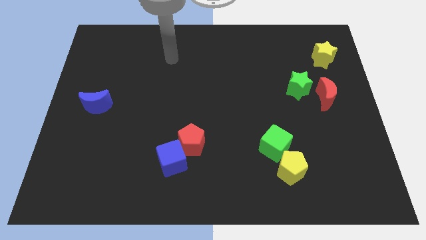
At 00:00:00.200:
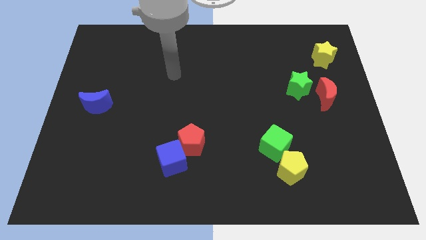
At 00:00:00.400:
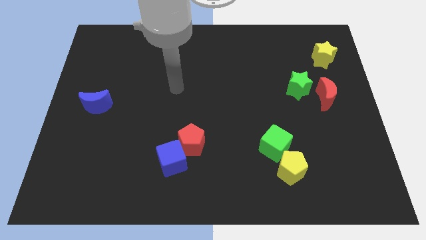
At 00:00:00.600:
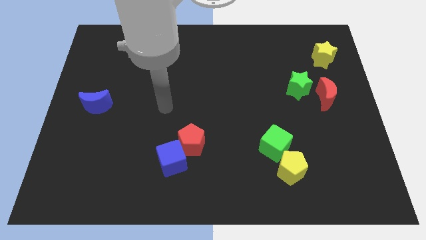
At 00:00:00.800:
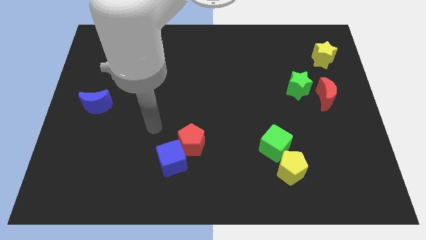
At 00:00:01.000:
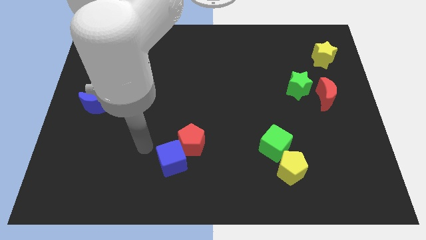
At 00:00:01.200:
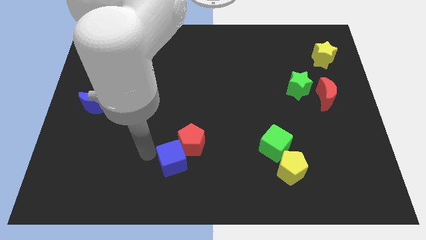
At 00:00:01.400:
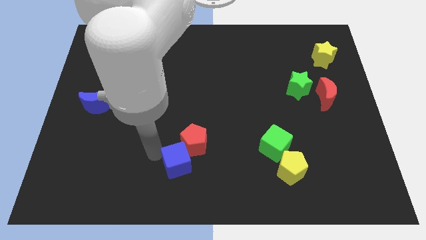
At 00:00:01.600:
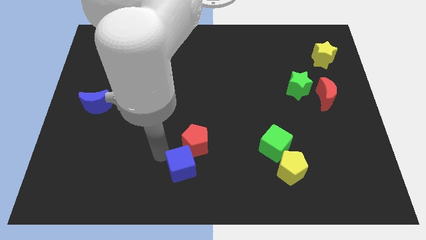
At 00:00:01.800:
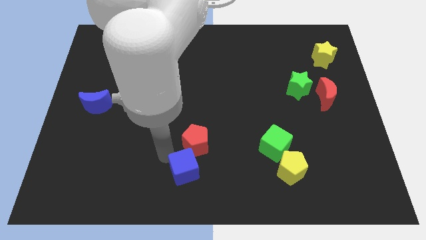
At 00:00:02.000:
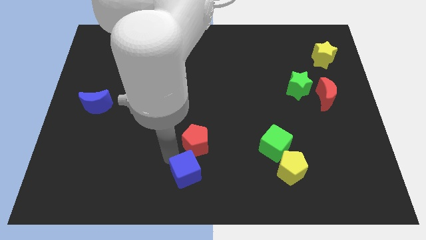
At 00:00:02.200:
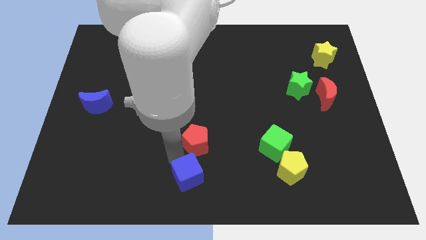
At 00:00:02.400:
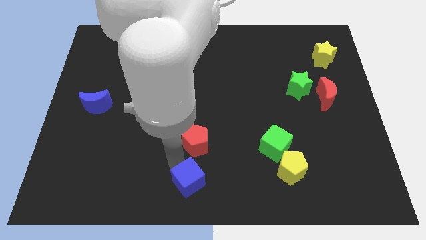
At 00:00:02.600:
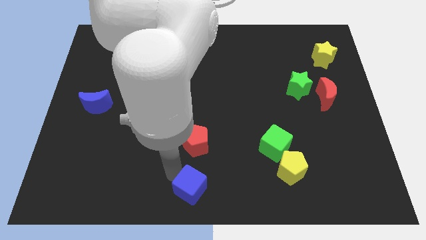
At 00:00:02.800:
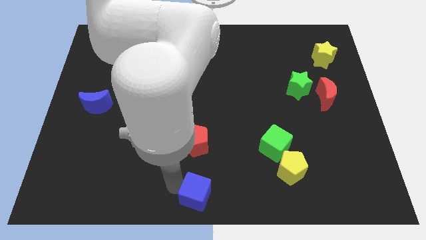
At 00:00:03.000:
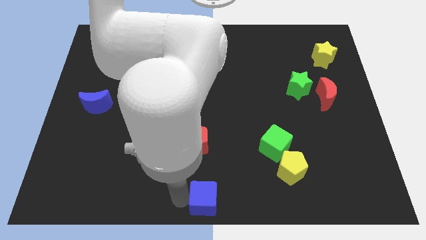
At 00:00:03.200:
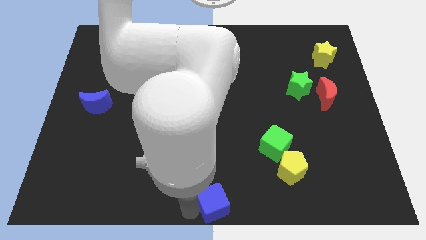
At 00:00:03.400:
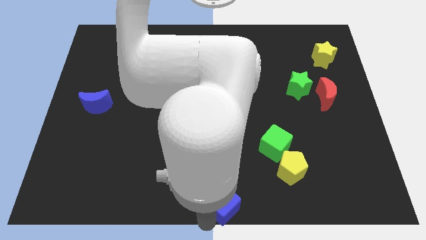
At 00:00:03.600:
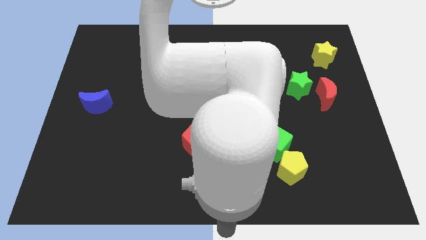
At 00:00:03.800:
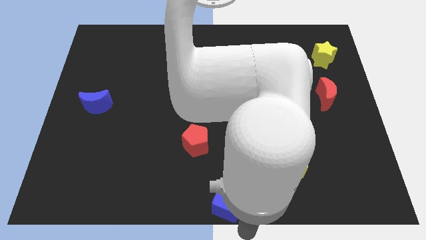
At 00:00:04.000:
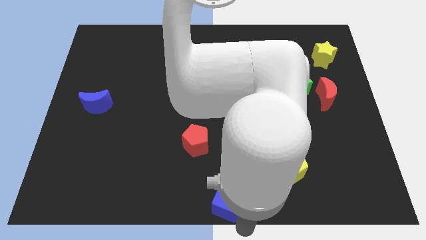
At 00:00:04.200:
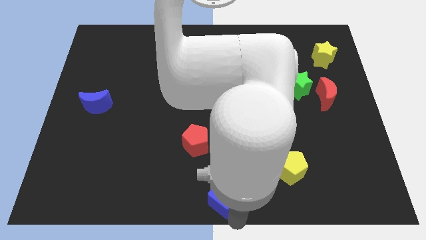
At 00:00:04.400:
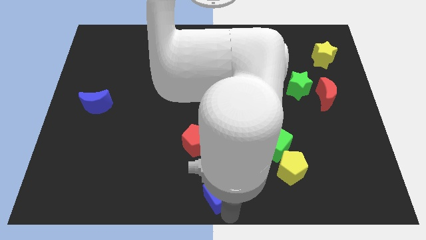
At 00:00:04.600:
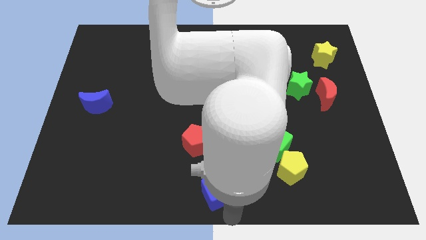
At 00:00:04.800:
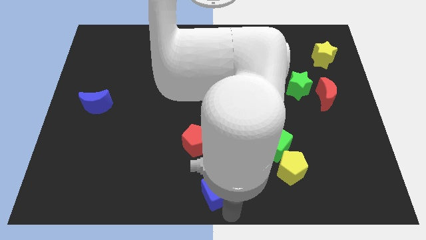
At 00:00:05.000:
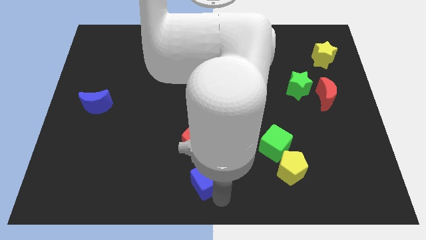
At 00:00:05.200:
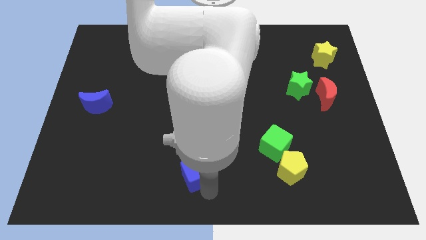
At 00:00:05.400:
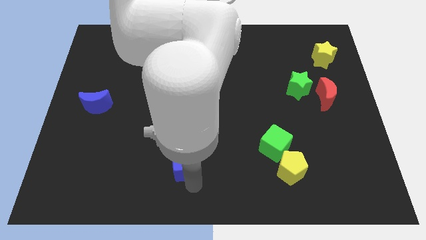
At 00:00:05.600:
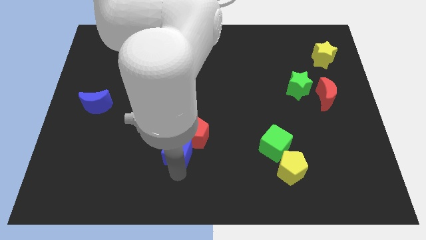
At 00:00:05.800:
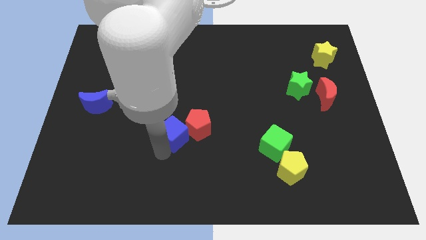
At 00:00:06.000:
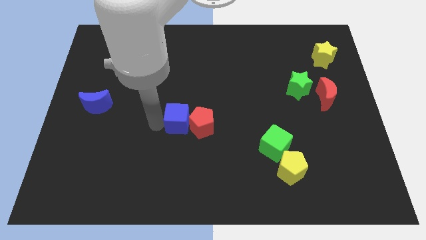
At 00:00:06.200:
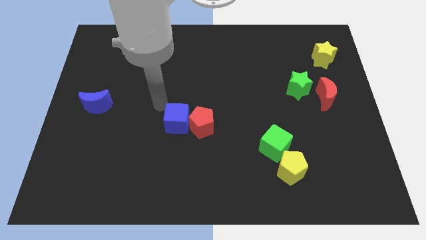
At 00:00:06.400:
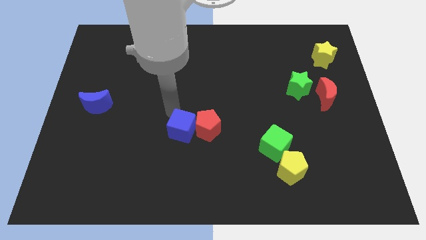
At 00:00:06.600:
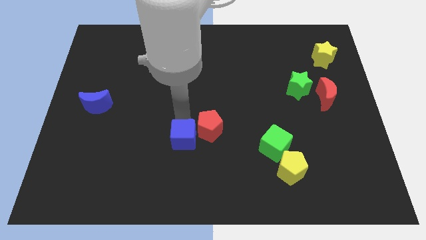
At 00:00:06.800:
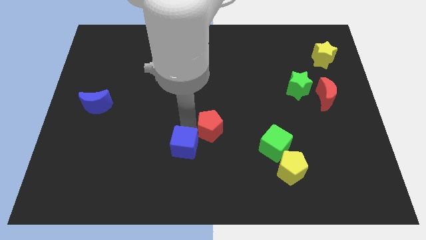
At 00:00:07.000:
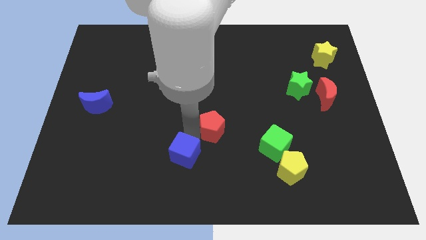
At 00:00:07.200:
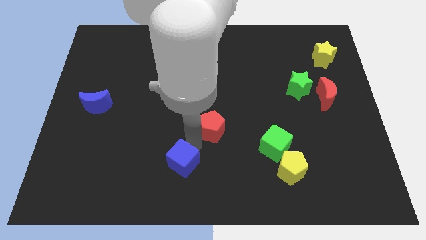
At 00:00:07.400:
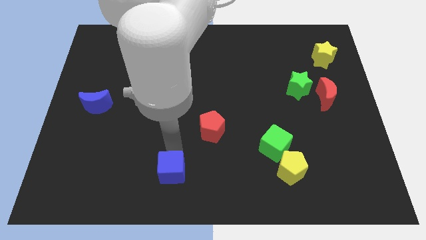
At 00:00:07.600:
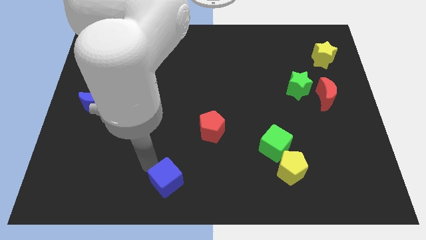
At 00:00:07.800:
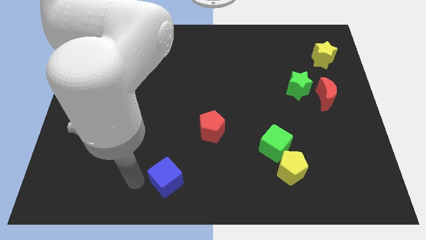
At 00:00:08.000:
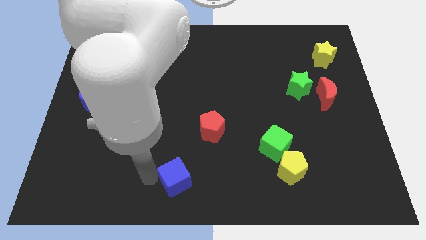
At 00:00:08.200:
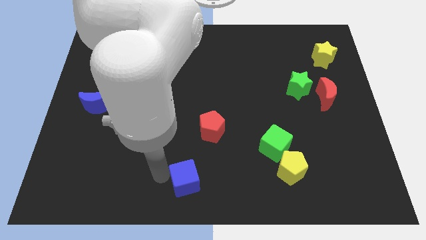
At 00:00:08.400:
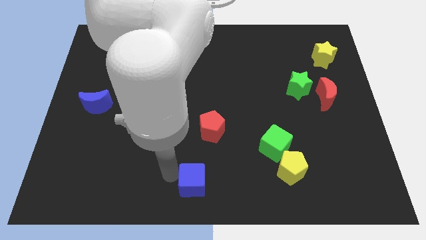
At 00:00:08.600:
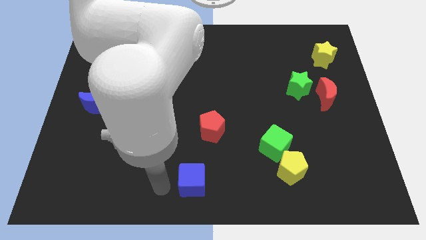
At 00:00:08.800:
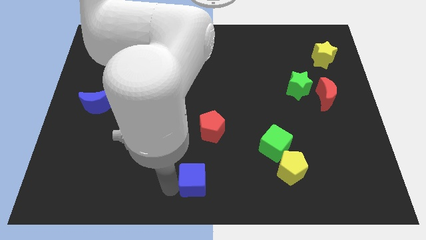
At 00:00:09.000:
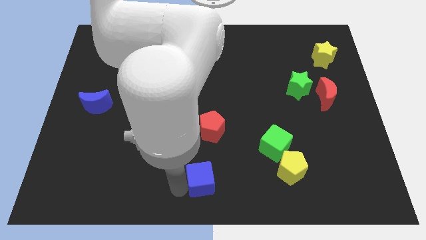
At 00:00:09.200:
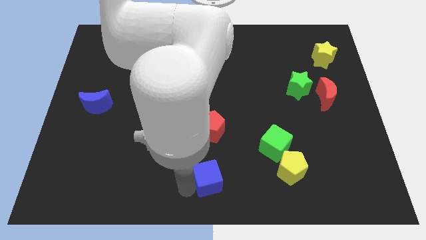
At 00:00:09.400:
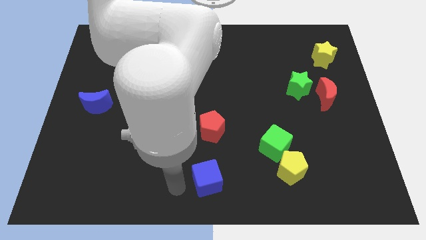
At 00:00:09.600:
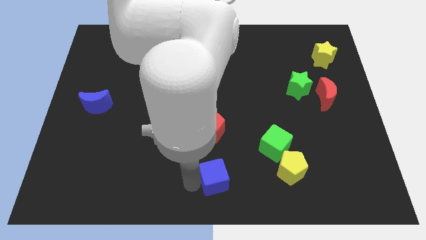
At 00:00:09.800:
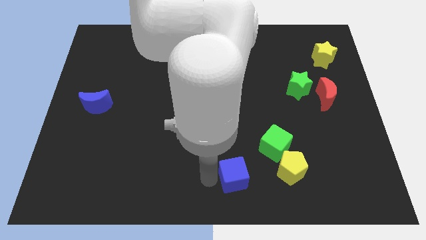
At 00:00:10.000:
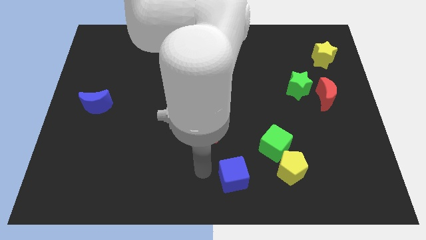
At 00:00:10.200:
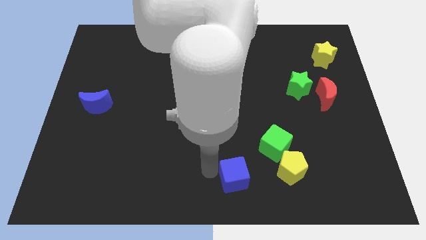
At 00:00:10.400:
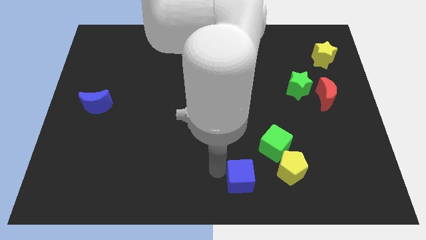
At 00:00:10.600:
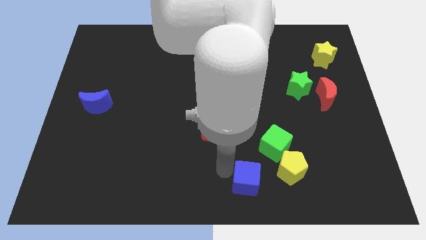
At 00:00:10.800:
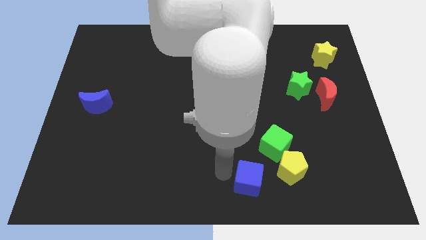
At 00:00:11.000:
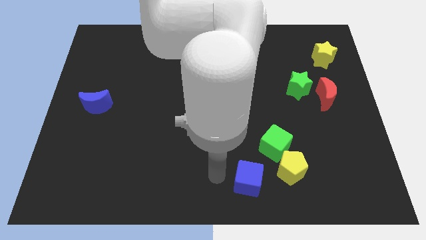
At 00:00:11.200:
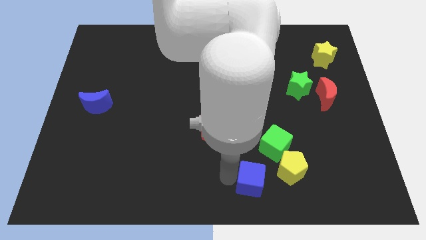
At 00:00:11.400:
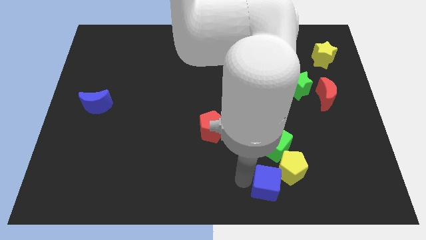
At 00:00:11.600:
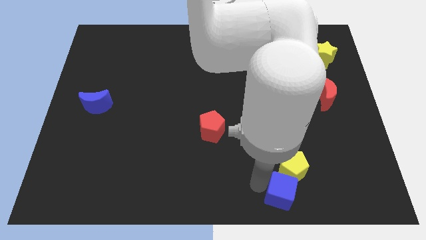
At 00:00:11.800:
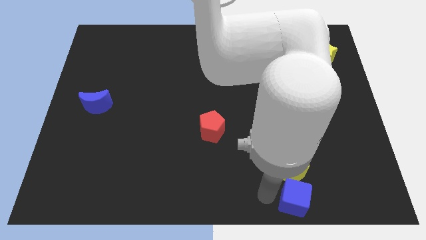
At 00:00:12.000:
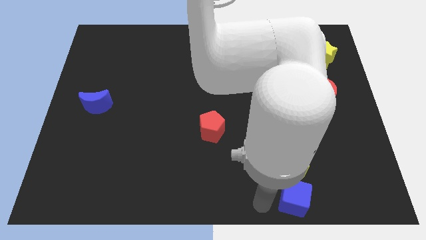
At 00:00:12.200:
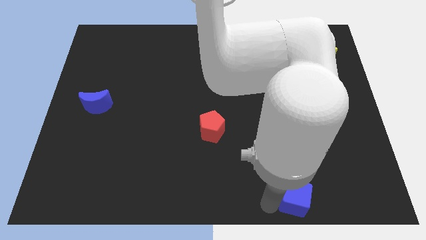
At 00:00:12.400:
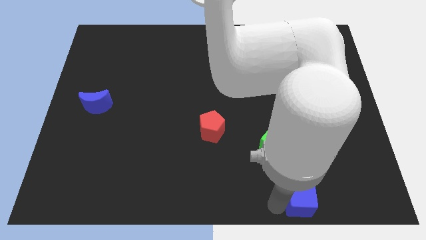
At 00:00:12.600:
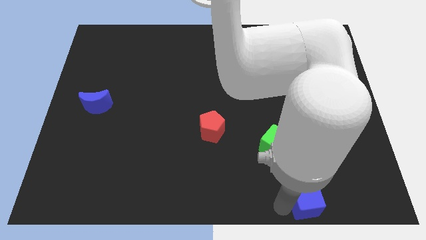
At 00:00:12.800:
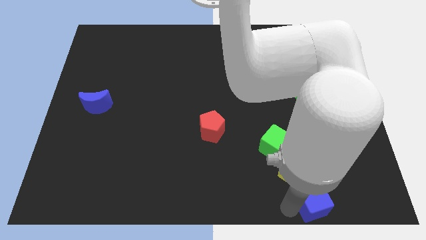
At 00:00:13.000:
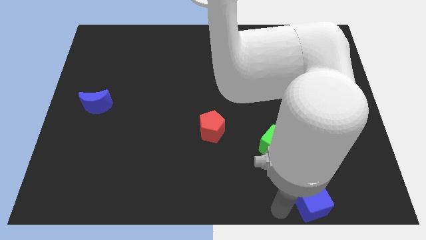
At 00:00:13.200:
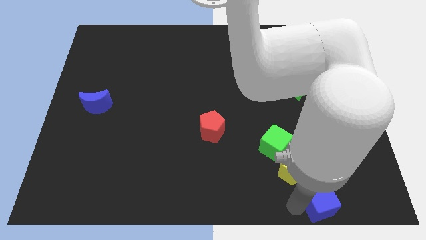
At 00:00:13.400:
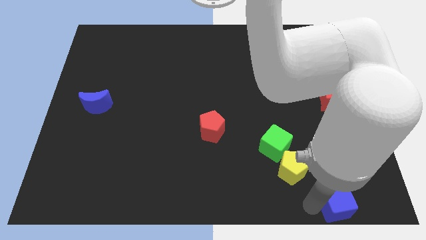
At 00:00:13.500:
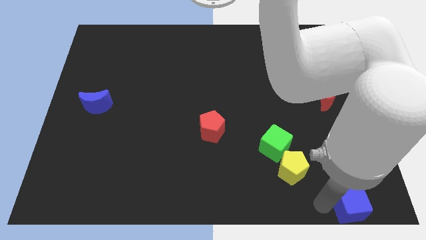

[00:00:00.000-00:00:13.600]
slide the blue cube to the bottom right corner

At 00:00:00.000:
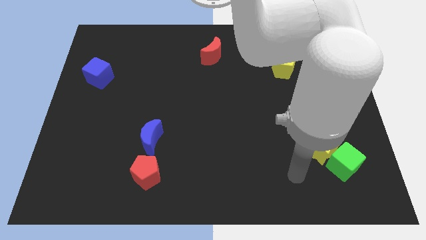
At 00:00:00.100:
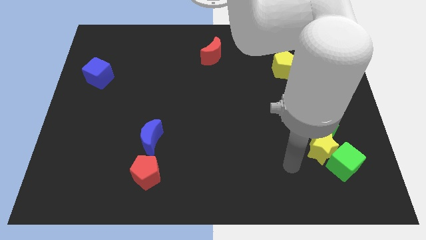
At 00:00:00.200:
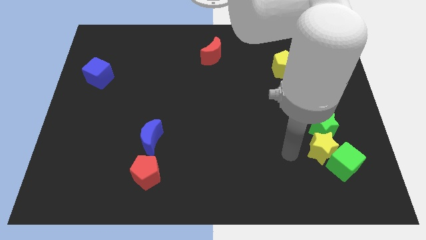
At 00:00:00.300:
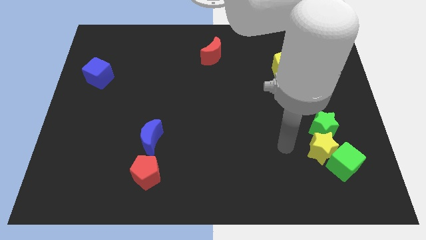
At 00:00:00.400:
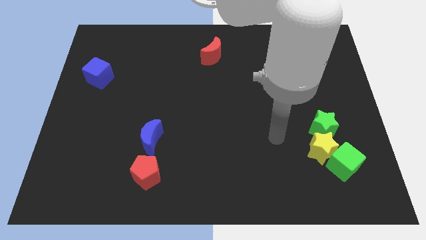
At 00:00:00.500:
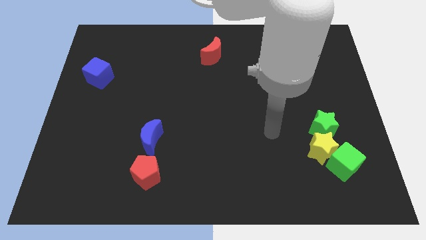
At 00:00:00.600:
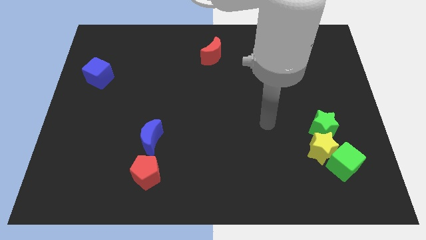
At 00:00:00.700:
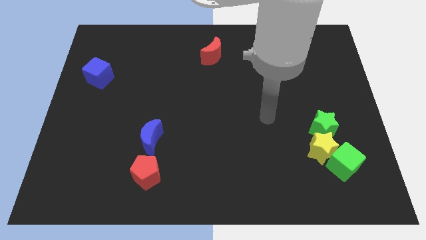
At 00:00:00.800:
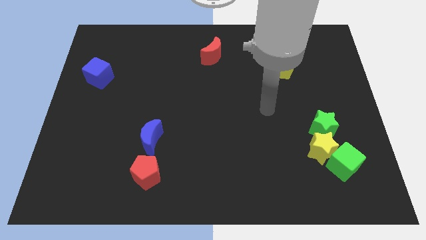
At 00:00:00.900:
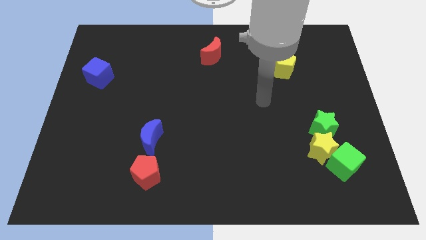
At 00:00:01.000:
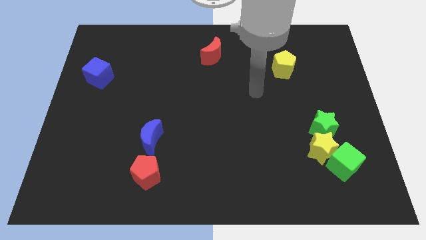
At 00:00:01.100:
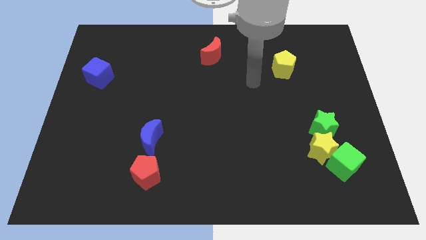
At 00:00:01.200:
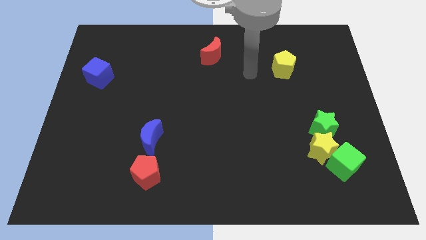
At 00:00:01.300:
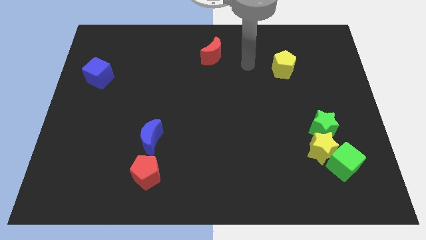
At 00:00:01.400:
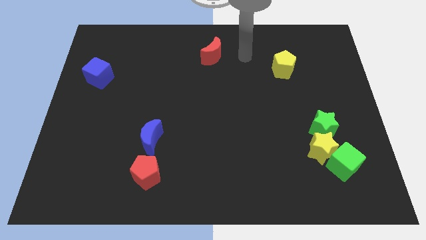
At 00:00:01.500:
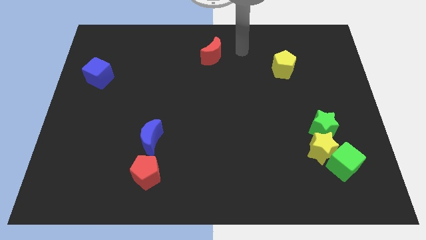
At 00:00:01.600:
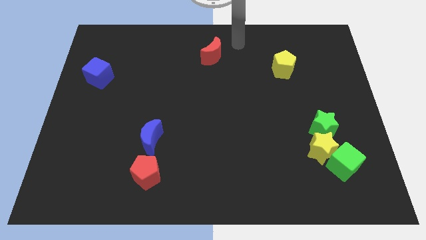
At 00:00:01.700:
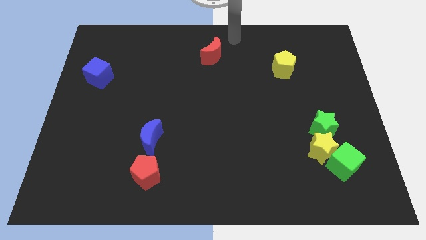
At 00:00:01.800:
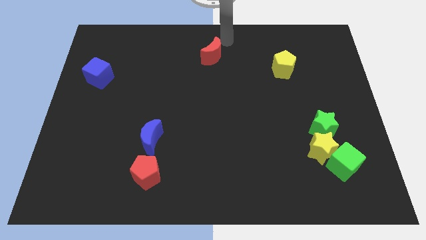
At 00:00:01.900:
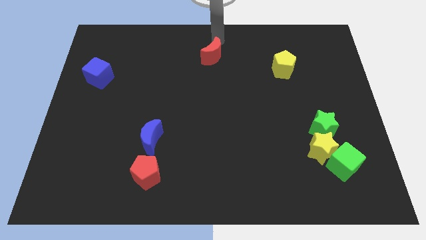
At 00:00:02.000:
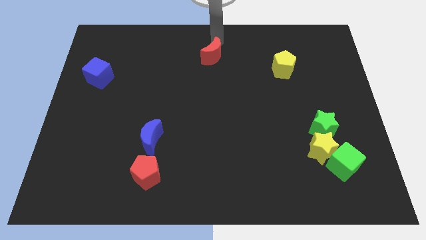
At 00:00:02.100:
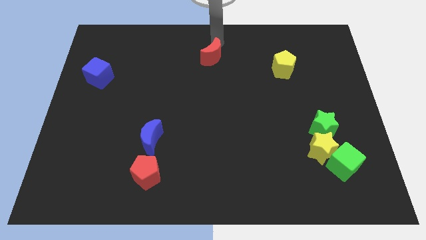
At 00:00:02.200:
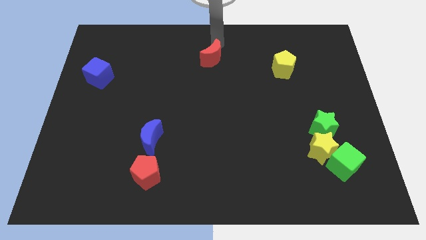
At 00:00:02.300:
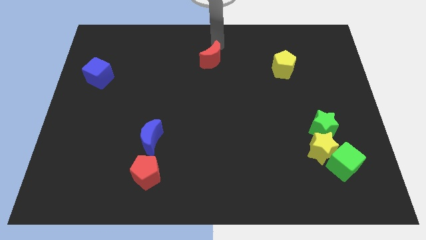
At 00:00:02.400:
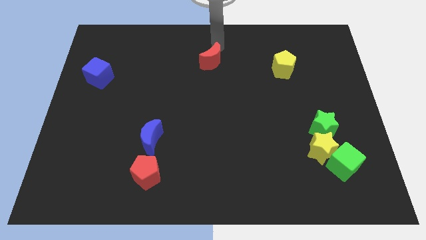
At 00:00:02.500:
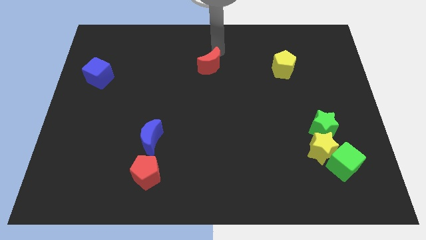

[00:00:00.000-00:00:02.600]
push the red moon to the middle of the board
